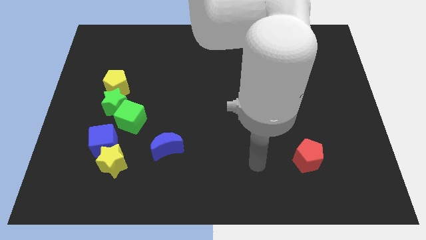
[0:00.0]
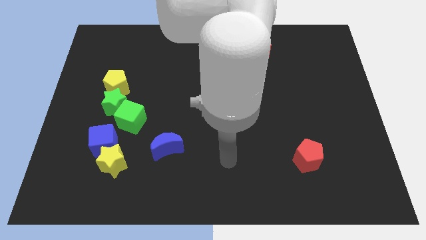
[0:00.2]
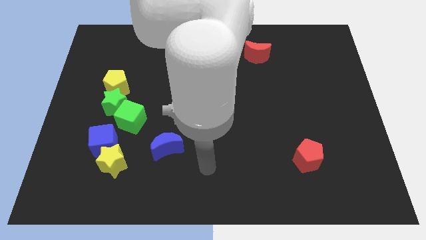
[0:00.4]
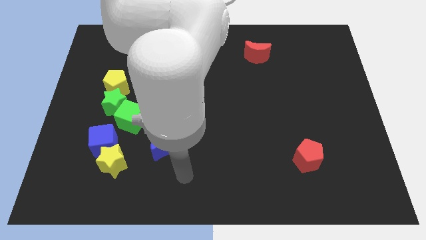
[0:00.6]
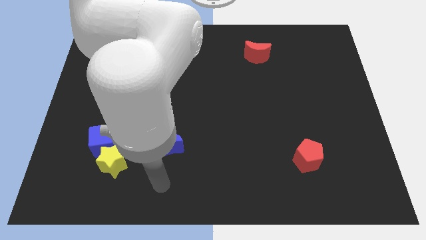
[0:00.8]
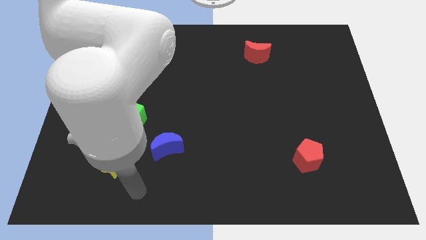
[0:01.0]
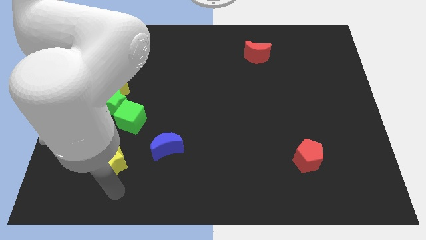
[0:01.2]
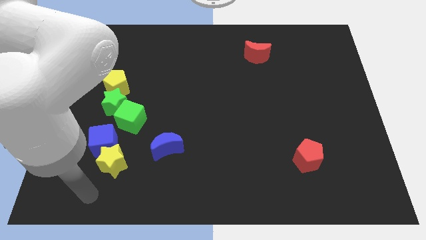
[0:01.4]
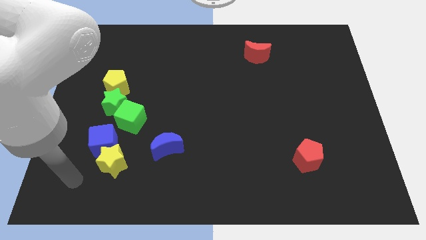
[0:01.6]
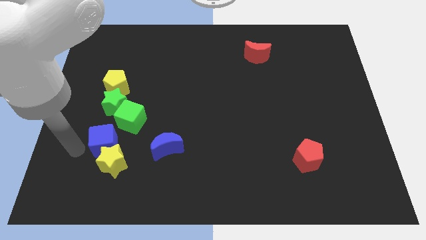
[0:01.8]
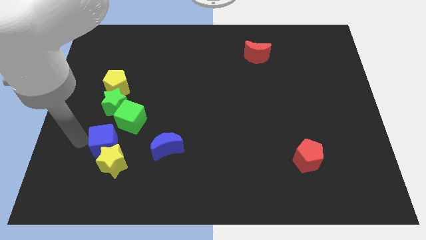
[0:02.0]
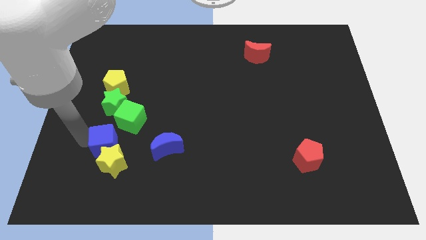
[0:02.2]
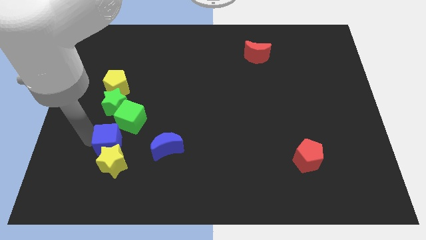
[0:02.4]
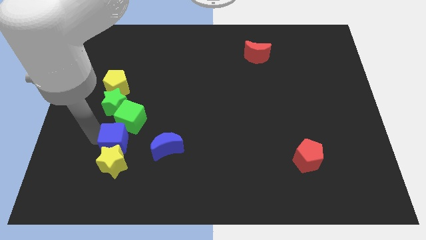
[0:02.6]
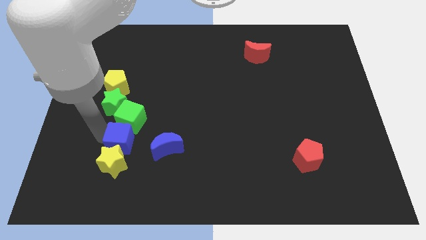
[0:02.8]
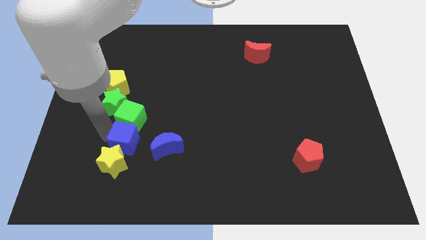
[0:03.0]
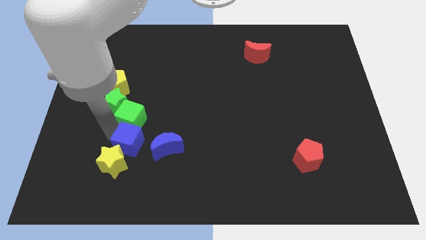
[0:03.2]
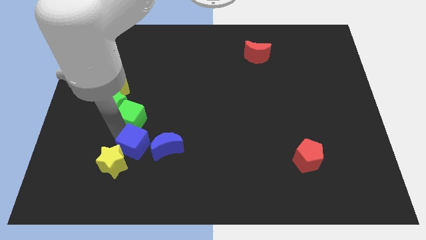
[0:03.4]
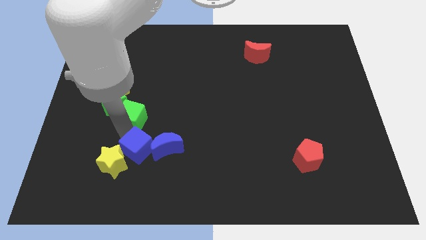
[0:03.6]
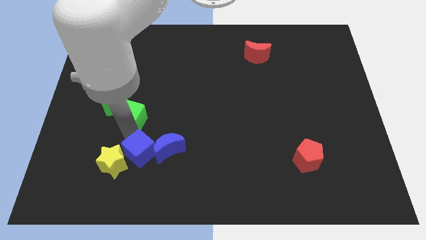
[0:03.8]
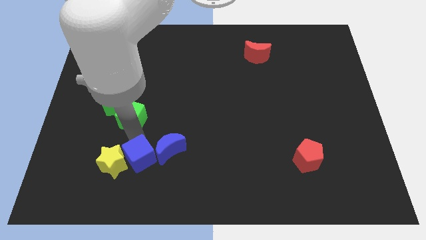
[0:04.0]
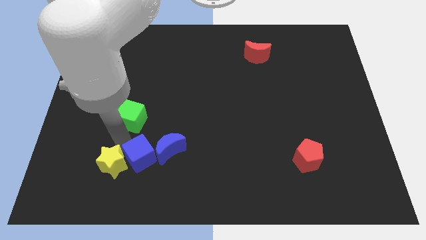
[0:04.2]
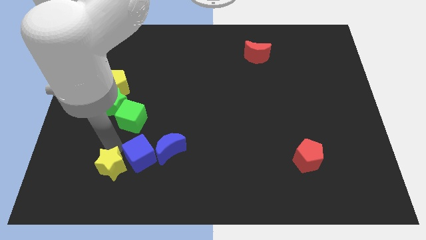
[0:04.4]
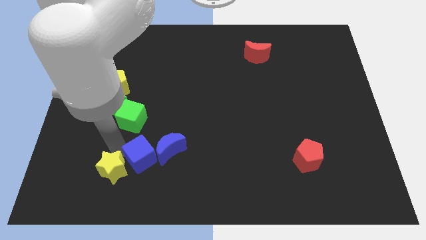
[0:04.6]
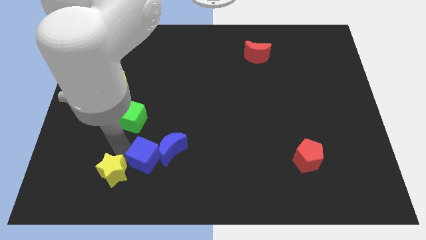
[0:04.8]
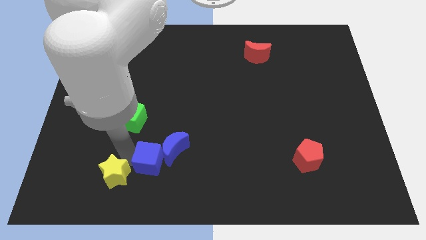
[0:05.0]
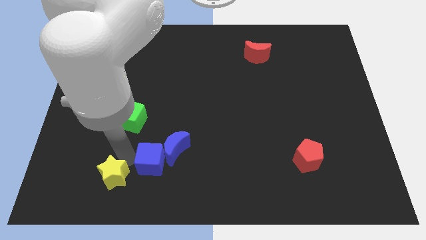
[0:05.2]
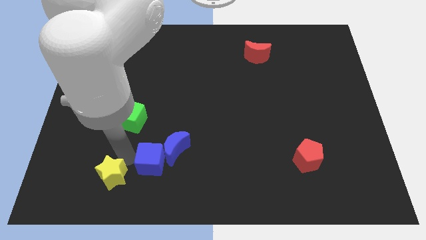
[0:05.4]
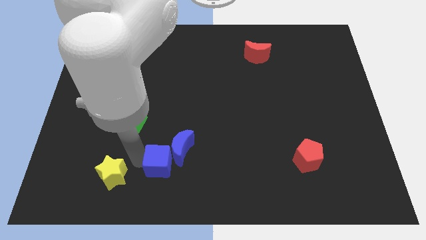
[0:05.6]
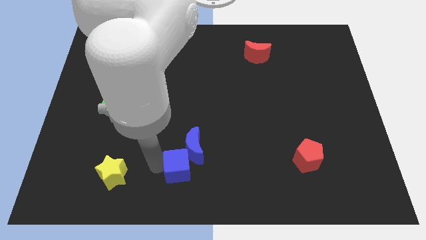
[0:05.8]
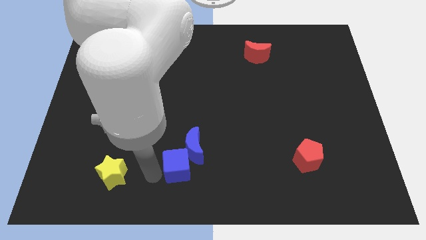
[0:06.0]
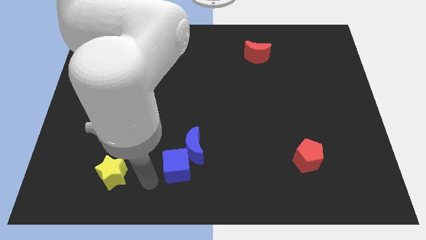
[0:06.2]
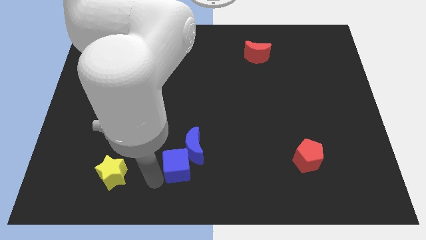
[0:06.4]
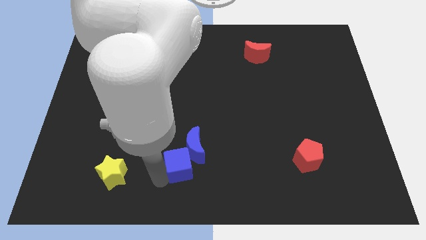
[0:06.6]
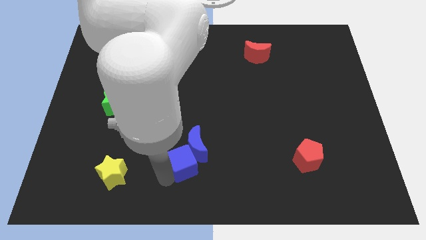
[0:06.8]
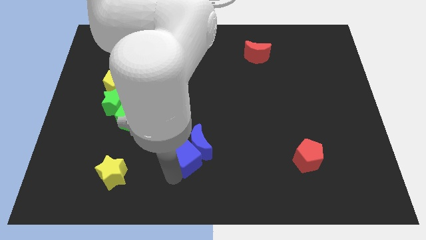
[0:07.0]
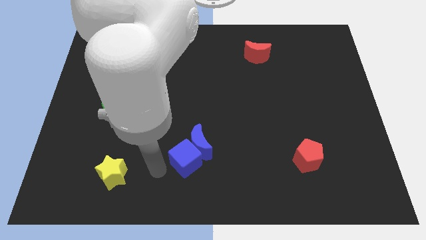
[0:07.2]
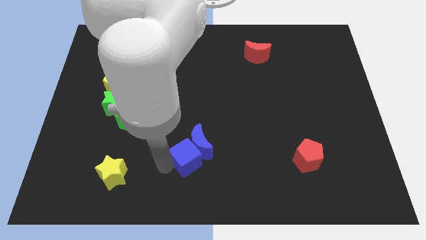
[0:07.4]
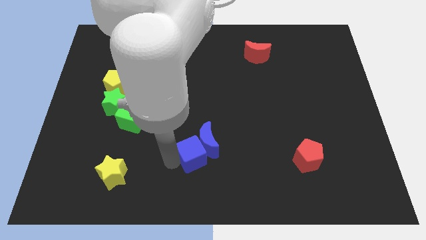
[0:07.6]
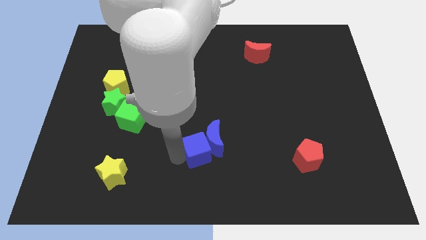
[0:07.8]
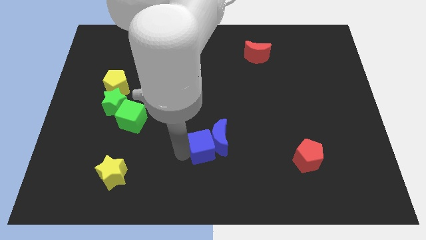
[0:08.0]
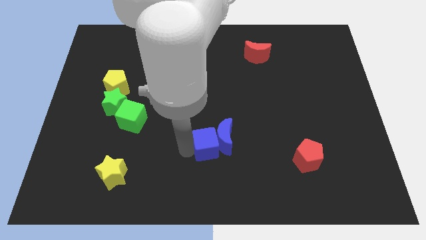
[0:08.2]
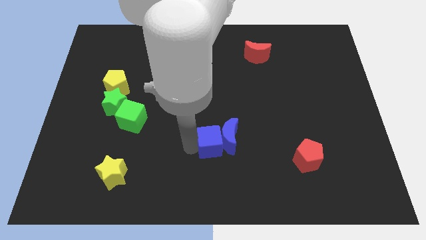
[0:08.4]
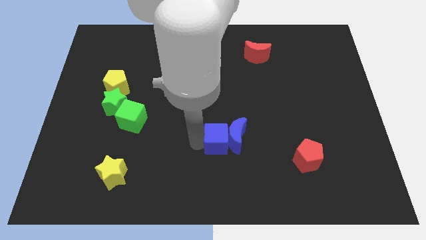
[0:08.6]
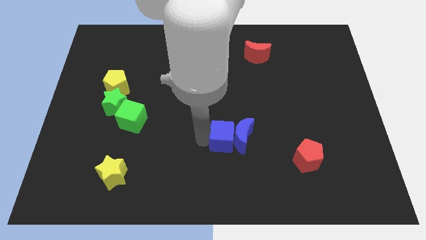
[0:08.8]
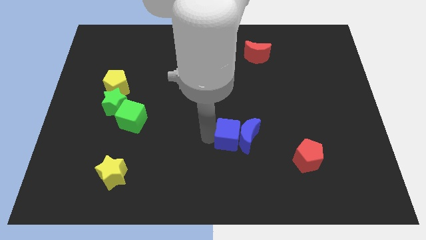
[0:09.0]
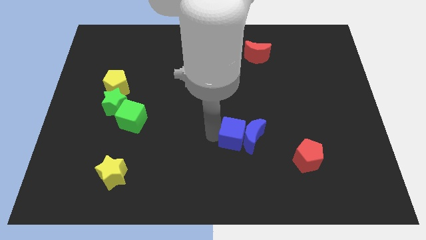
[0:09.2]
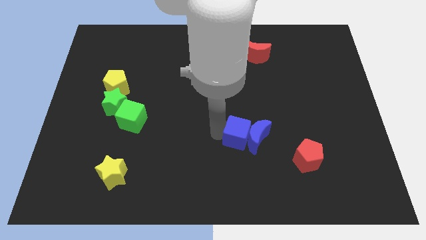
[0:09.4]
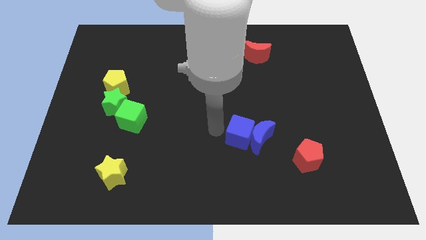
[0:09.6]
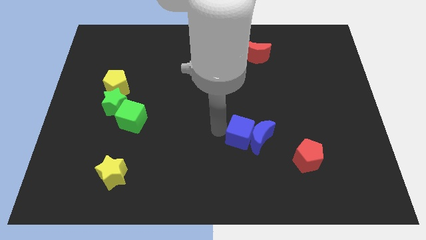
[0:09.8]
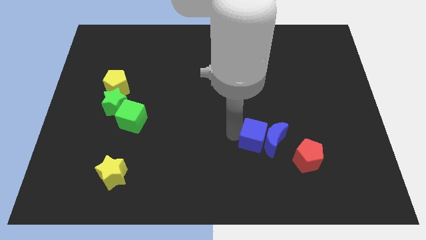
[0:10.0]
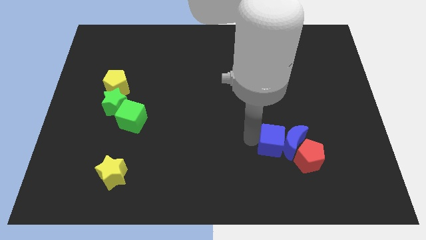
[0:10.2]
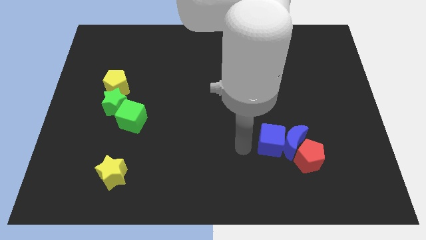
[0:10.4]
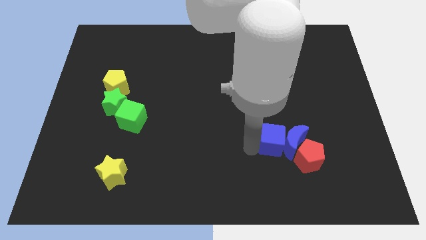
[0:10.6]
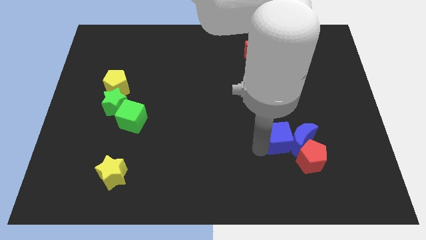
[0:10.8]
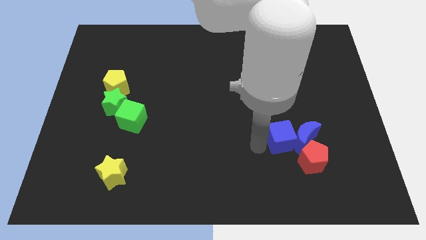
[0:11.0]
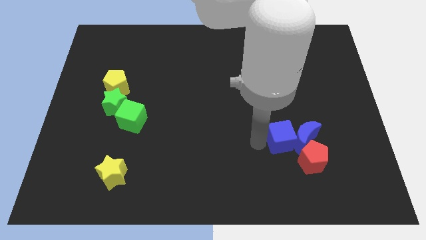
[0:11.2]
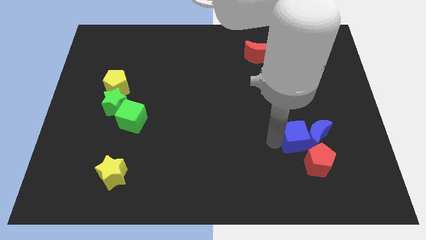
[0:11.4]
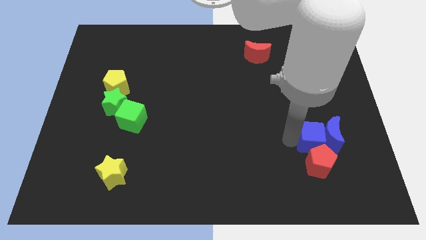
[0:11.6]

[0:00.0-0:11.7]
move the blue cube to the top right of the red pentagon
